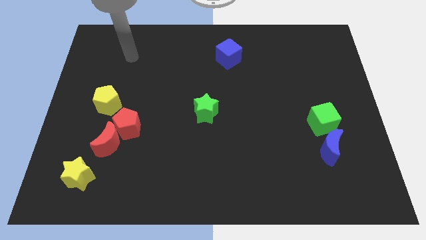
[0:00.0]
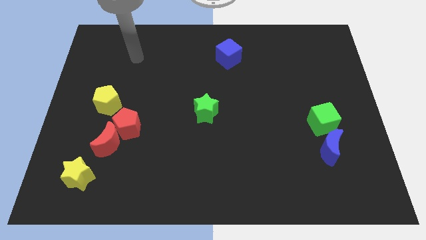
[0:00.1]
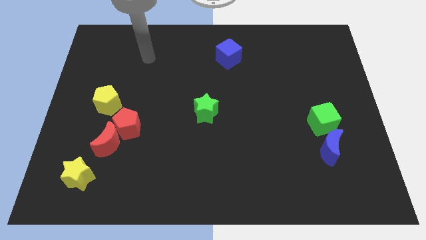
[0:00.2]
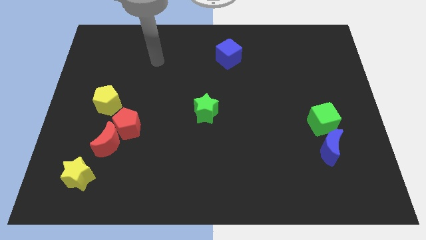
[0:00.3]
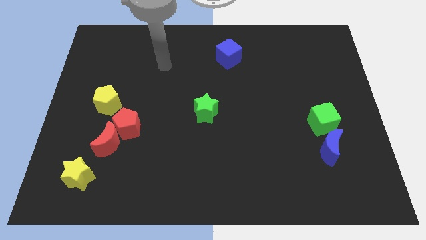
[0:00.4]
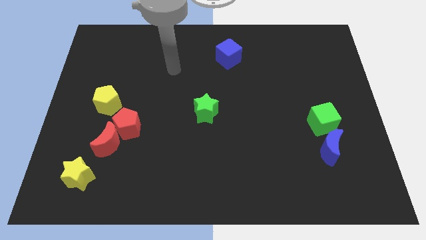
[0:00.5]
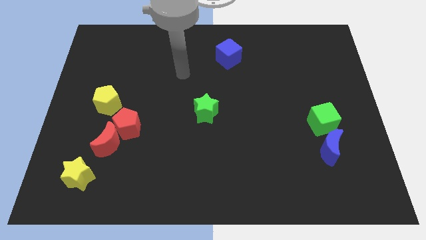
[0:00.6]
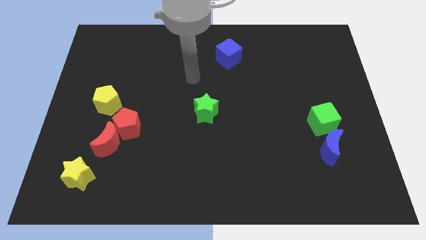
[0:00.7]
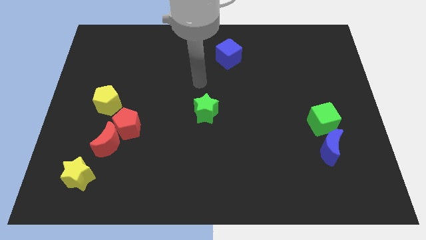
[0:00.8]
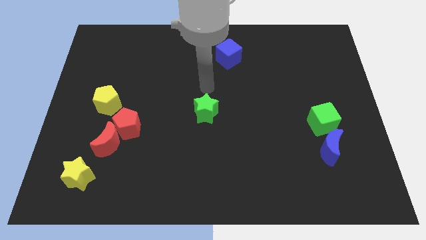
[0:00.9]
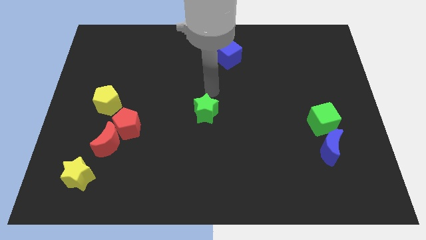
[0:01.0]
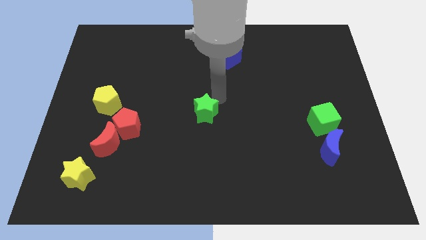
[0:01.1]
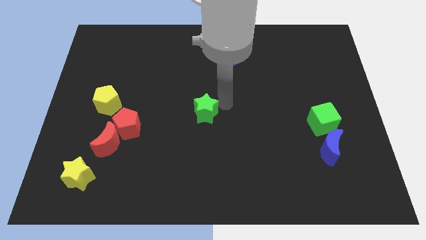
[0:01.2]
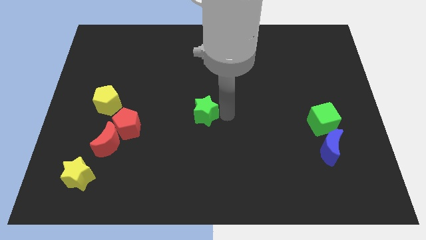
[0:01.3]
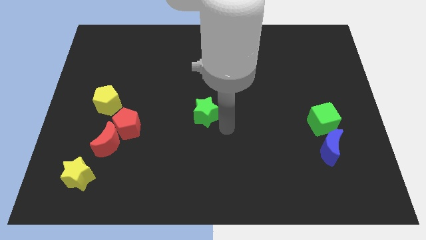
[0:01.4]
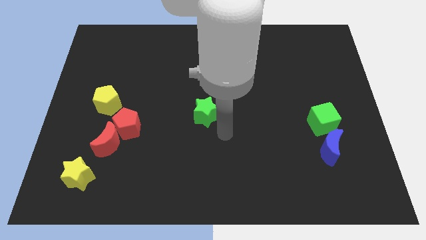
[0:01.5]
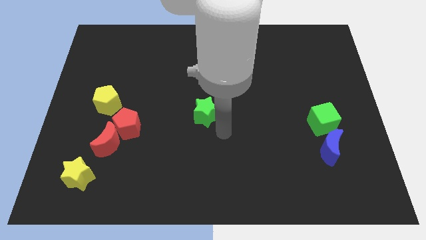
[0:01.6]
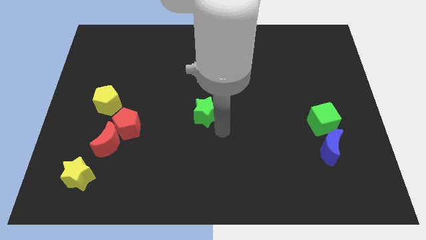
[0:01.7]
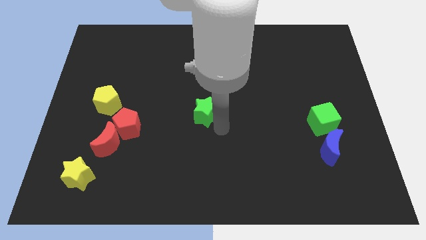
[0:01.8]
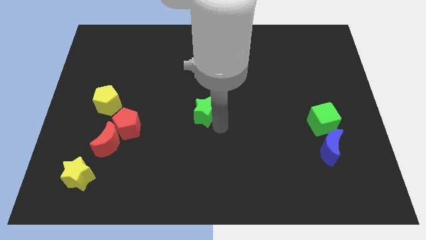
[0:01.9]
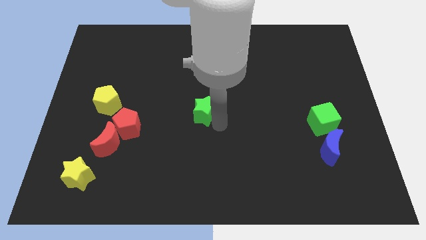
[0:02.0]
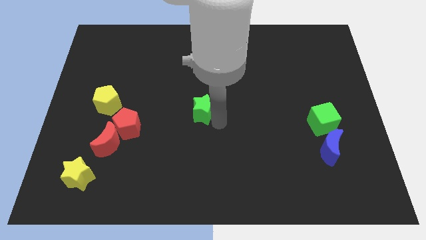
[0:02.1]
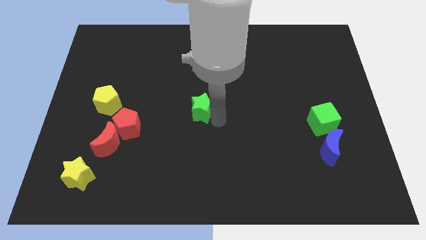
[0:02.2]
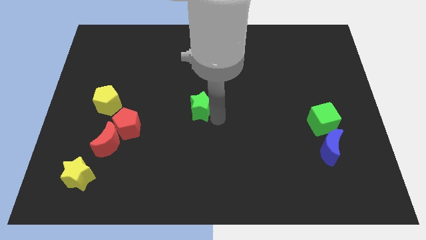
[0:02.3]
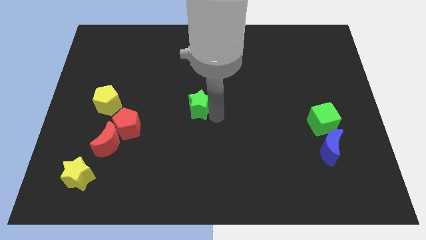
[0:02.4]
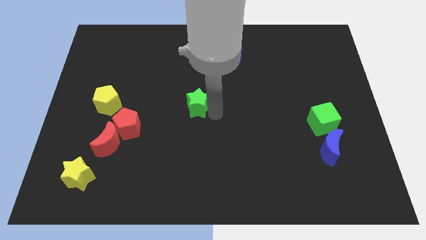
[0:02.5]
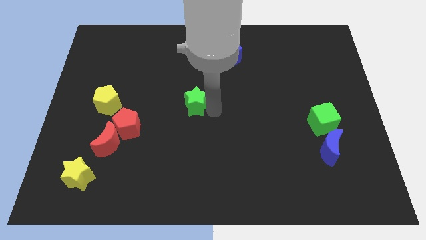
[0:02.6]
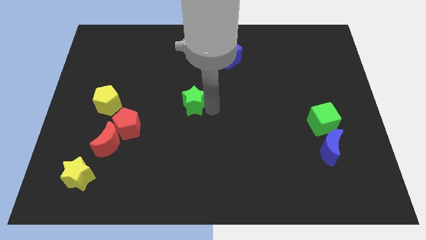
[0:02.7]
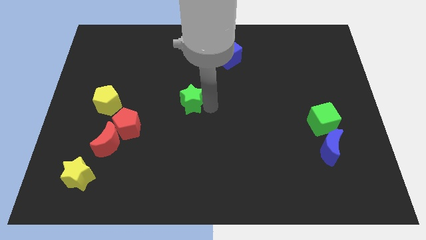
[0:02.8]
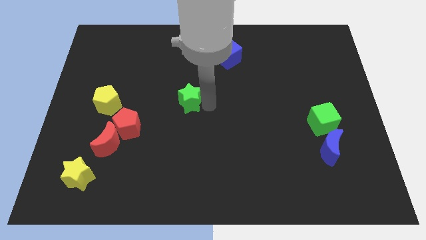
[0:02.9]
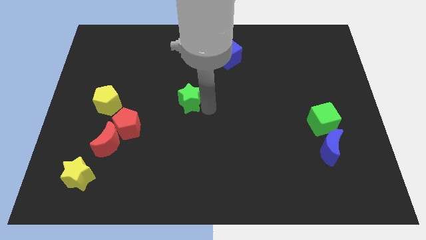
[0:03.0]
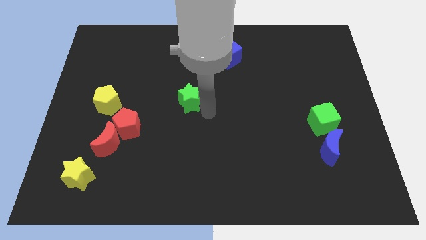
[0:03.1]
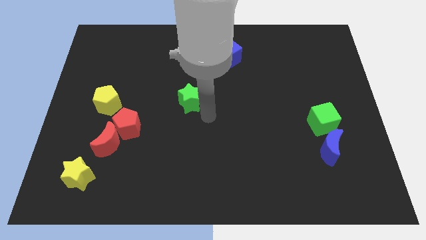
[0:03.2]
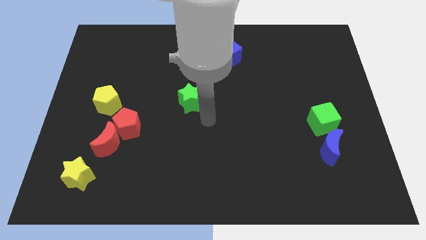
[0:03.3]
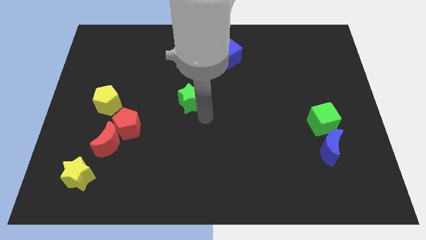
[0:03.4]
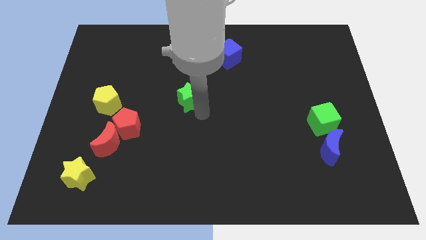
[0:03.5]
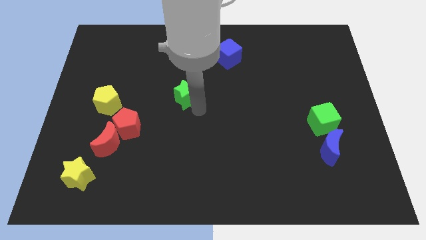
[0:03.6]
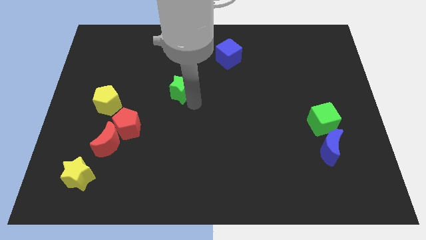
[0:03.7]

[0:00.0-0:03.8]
push the green star up and then to the left somewhat

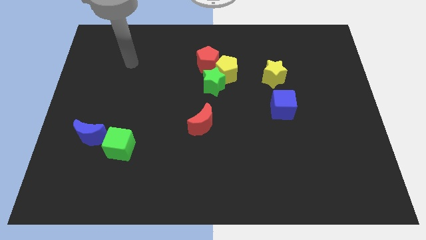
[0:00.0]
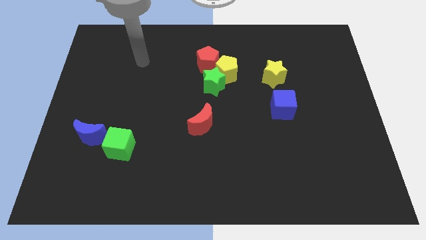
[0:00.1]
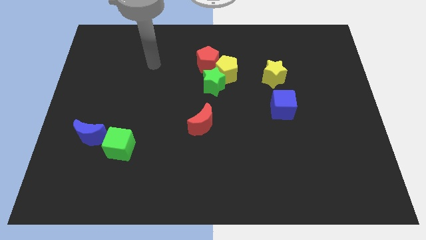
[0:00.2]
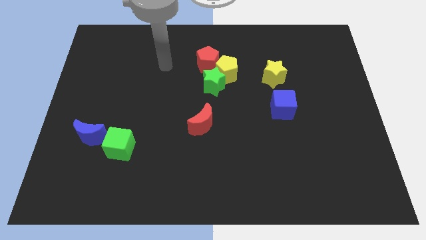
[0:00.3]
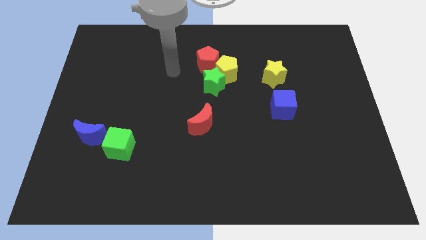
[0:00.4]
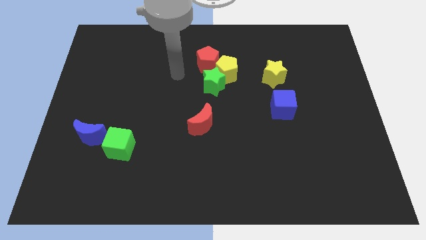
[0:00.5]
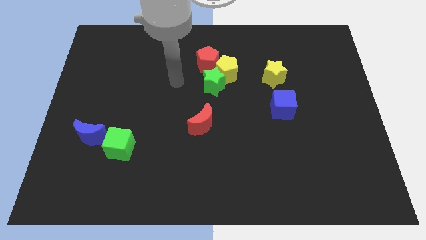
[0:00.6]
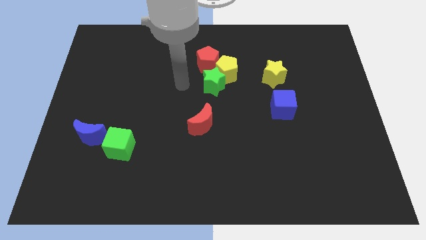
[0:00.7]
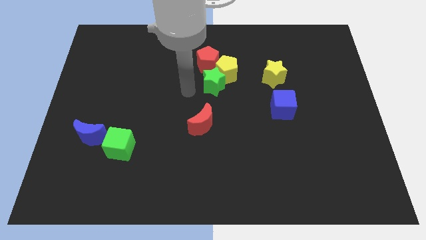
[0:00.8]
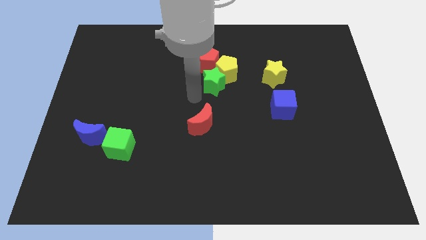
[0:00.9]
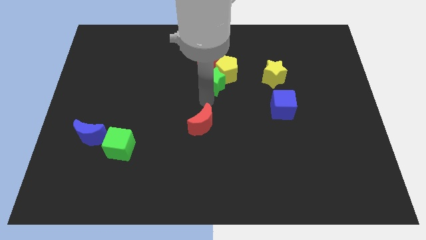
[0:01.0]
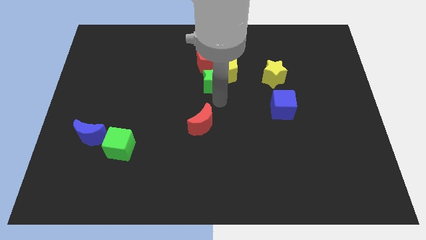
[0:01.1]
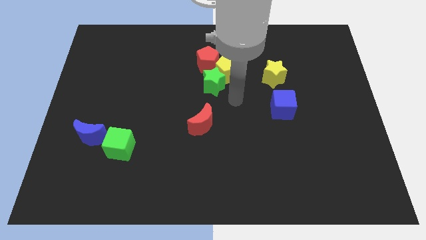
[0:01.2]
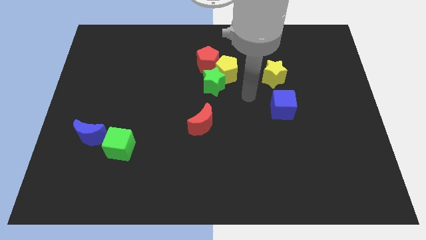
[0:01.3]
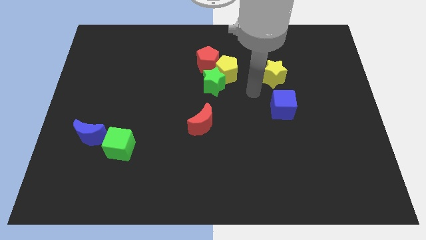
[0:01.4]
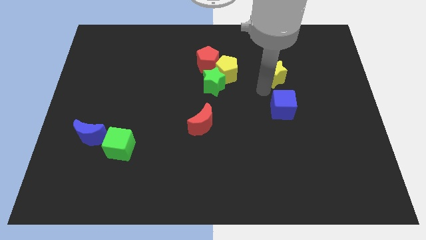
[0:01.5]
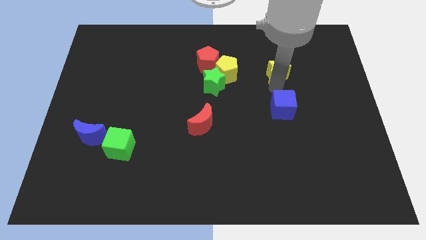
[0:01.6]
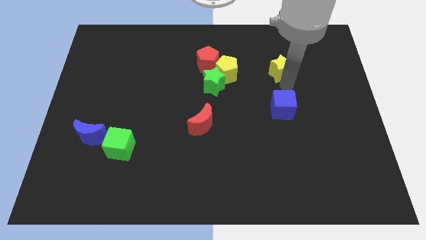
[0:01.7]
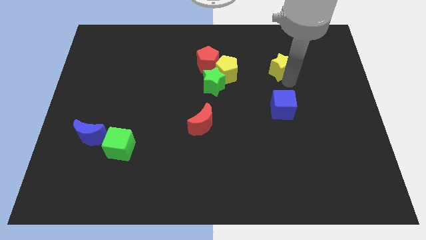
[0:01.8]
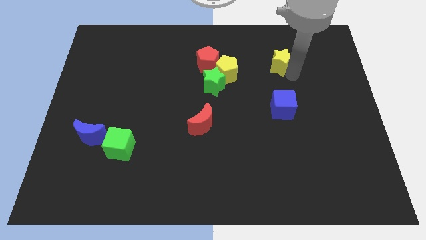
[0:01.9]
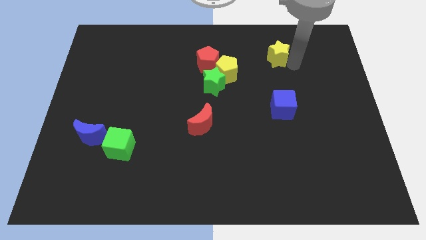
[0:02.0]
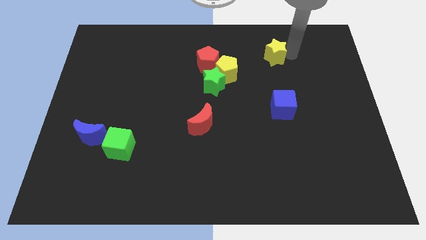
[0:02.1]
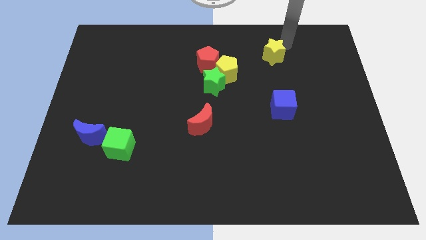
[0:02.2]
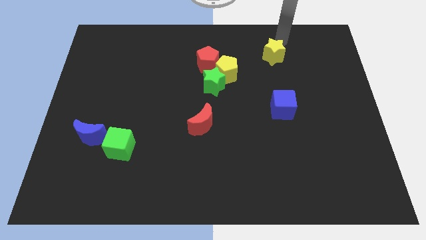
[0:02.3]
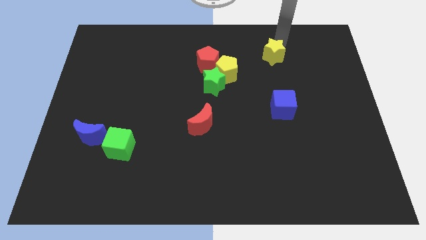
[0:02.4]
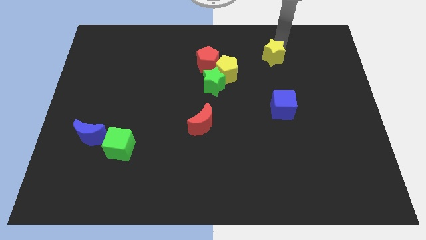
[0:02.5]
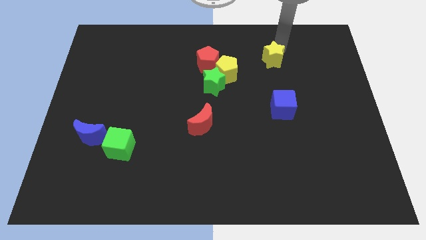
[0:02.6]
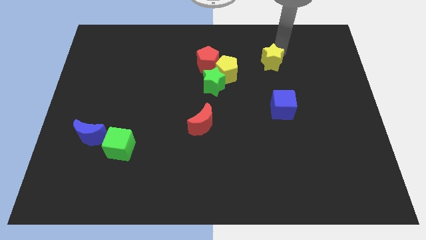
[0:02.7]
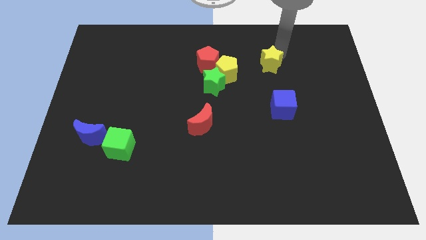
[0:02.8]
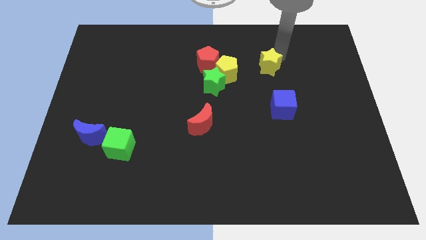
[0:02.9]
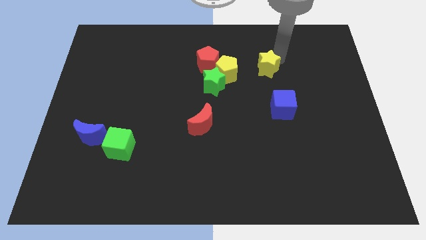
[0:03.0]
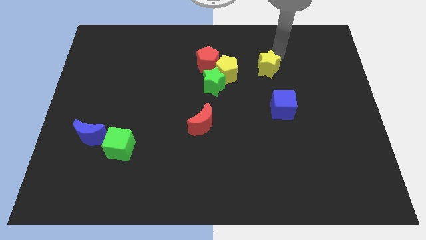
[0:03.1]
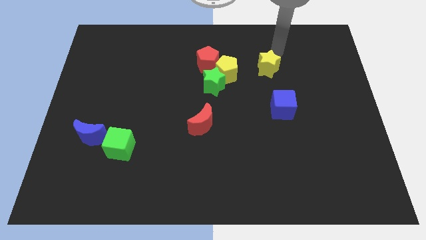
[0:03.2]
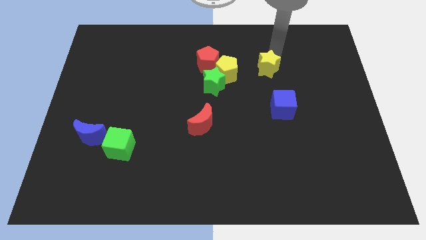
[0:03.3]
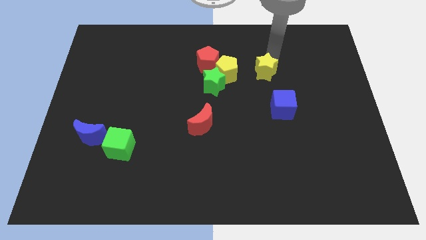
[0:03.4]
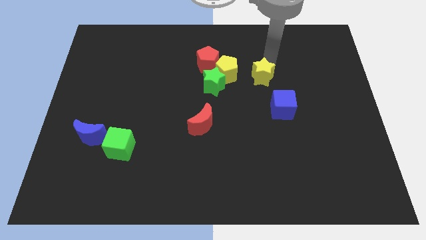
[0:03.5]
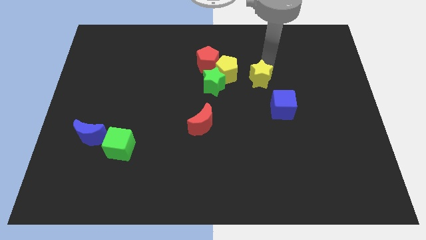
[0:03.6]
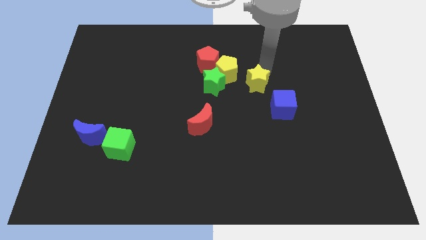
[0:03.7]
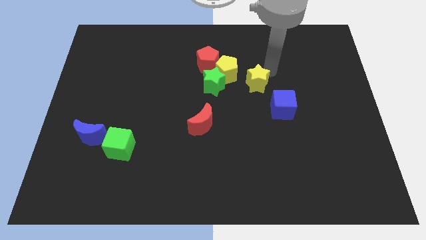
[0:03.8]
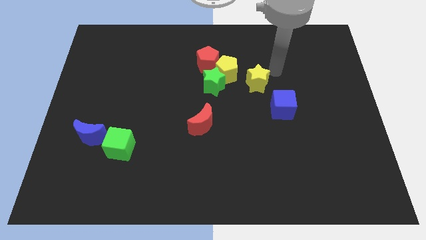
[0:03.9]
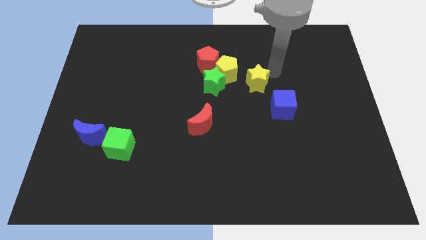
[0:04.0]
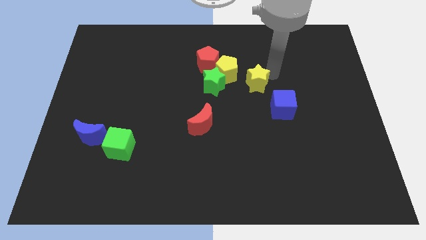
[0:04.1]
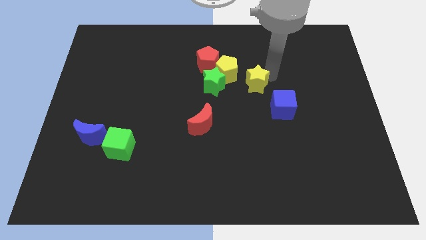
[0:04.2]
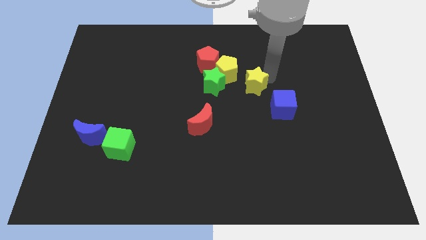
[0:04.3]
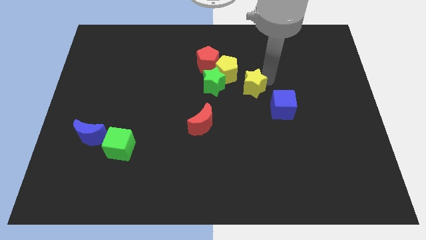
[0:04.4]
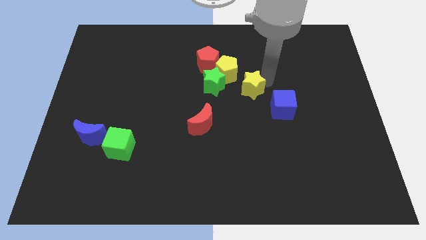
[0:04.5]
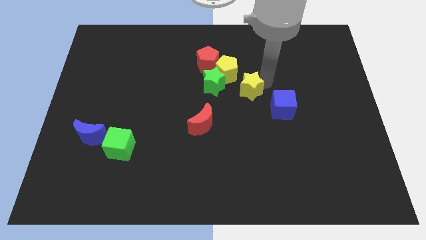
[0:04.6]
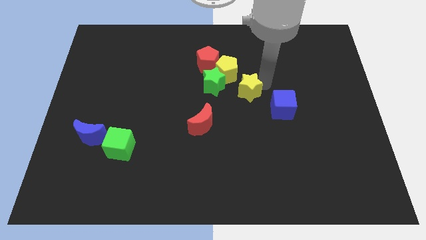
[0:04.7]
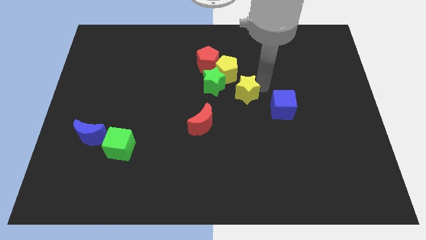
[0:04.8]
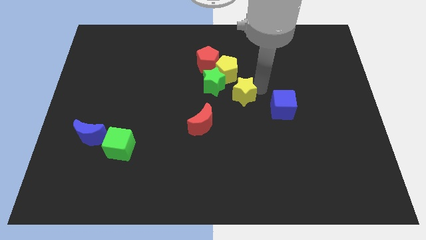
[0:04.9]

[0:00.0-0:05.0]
slightly slide the yellow star to the left
